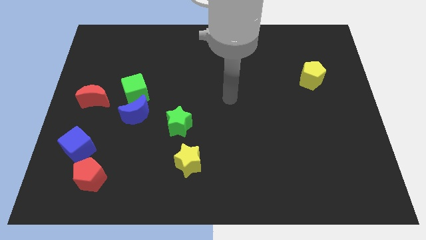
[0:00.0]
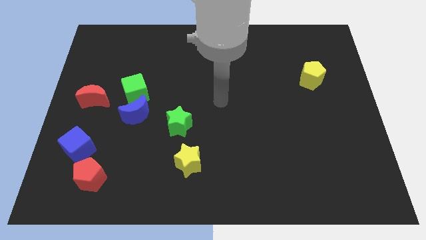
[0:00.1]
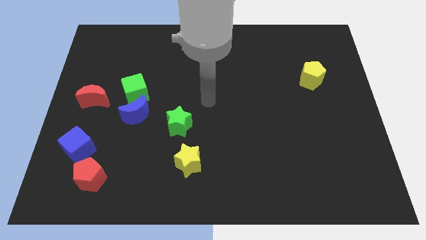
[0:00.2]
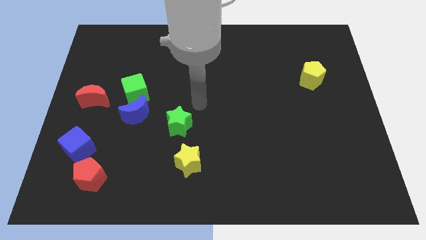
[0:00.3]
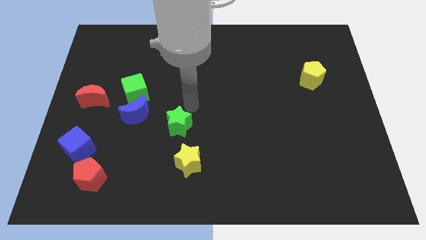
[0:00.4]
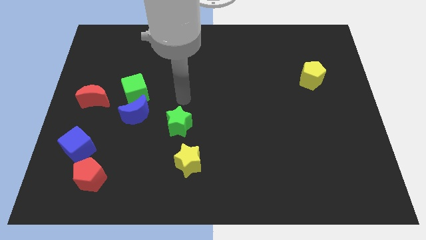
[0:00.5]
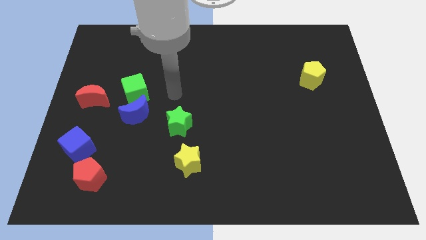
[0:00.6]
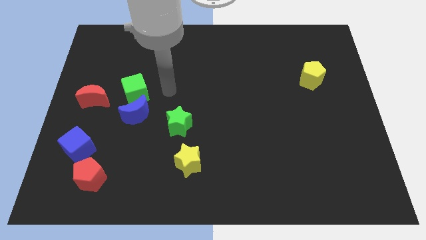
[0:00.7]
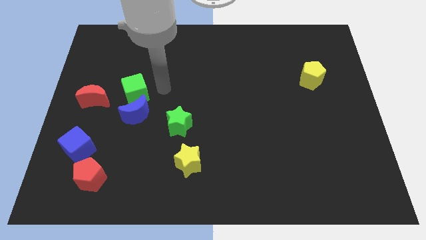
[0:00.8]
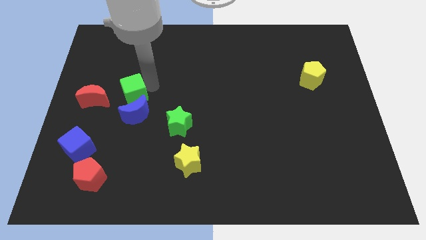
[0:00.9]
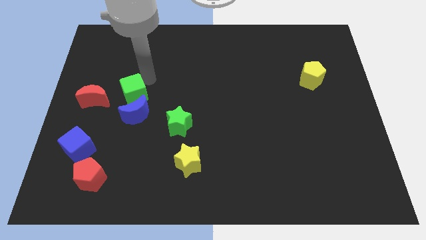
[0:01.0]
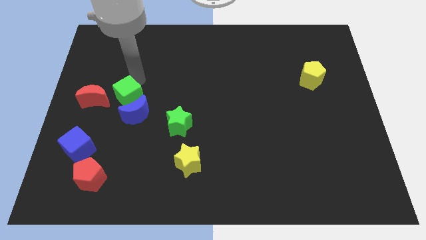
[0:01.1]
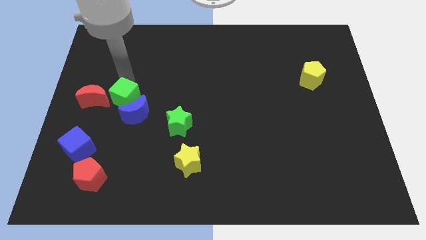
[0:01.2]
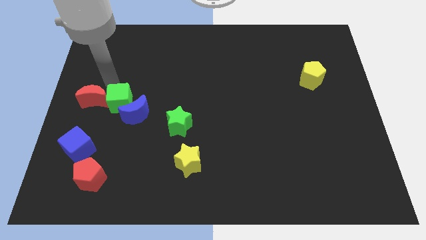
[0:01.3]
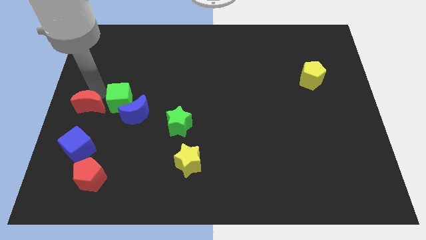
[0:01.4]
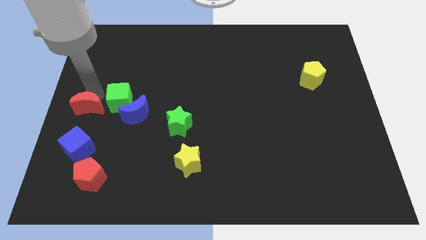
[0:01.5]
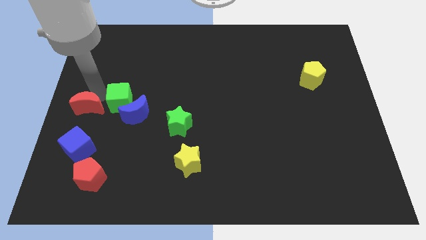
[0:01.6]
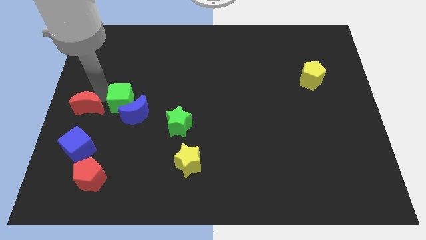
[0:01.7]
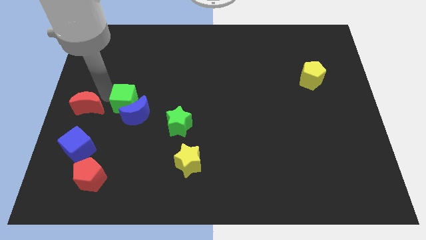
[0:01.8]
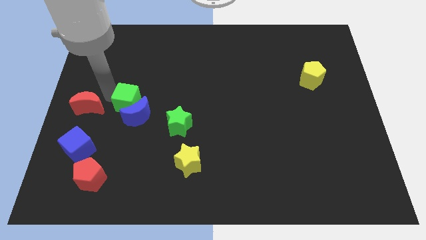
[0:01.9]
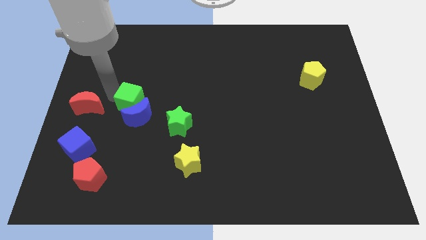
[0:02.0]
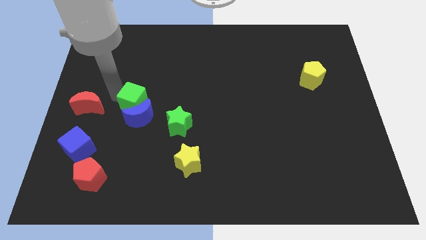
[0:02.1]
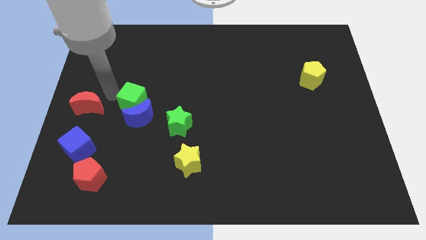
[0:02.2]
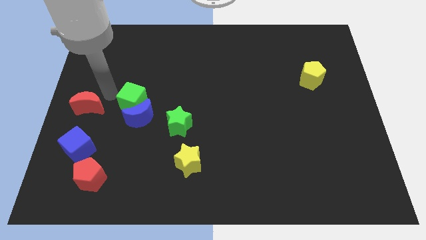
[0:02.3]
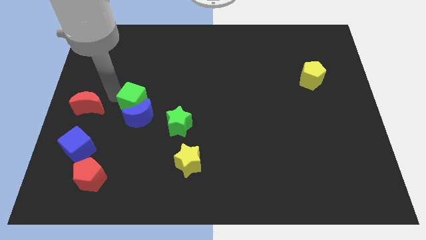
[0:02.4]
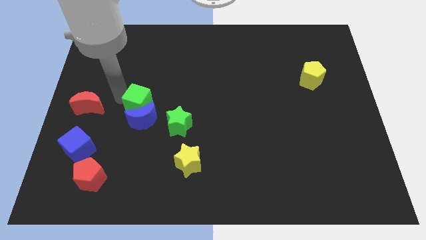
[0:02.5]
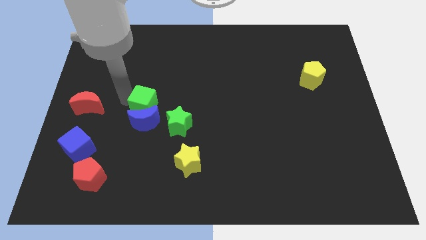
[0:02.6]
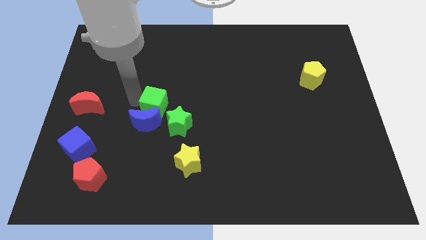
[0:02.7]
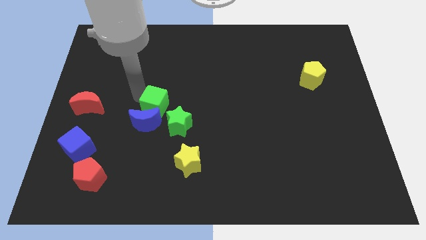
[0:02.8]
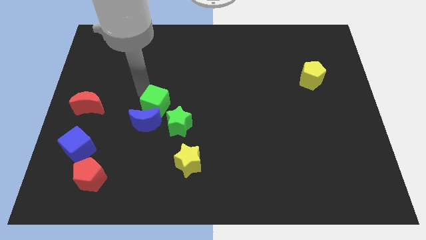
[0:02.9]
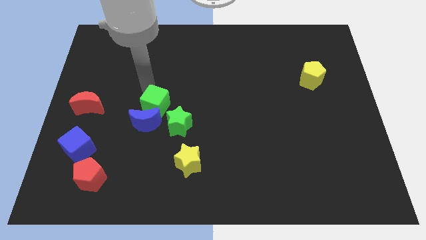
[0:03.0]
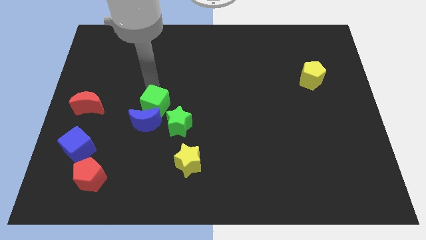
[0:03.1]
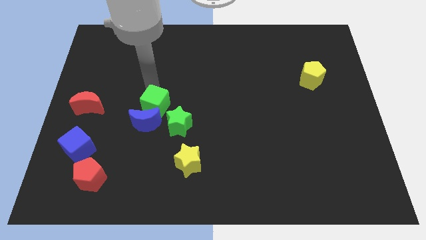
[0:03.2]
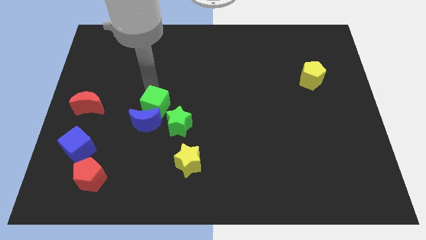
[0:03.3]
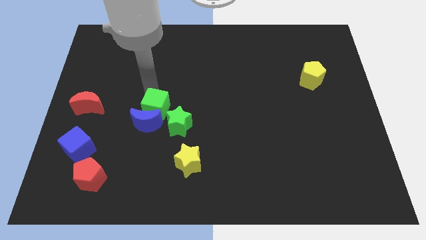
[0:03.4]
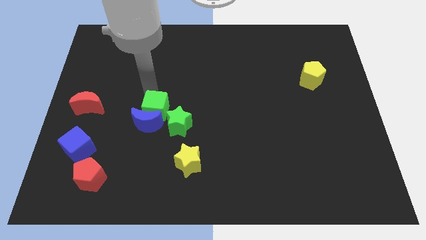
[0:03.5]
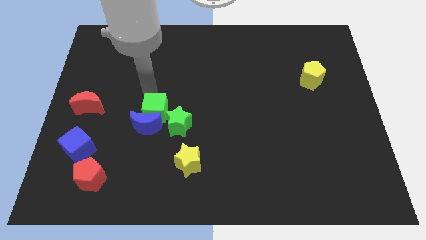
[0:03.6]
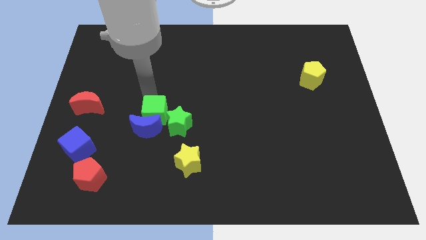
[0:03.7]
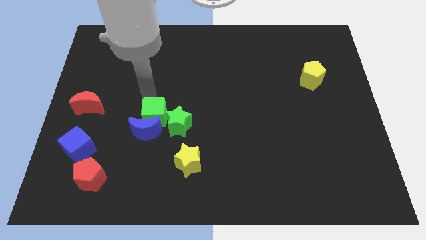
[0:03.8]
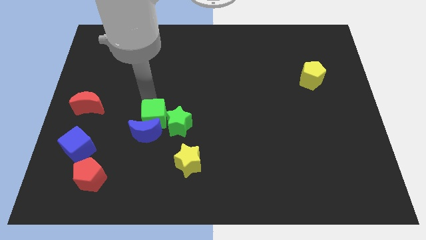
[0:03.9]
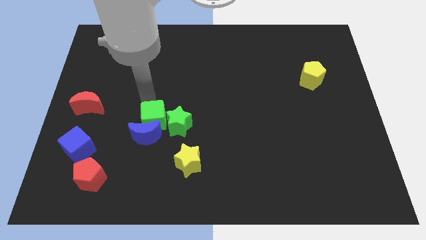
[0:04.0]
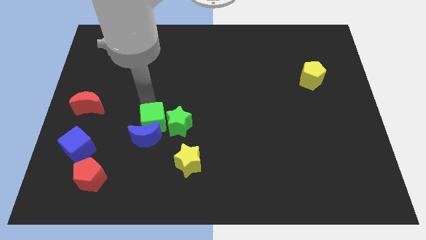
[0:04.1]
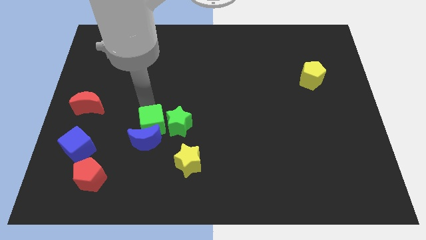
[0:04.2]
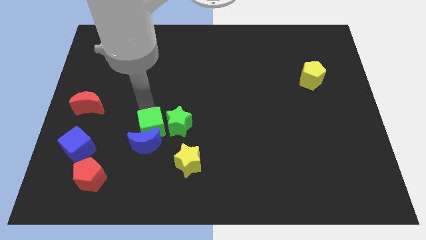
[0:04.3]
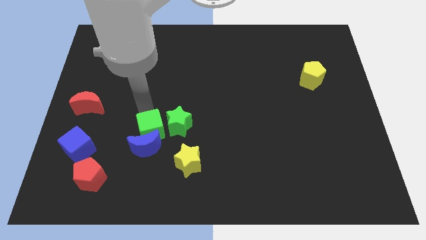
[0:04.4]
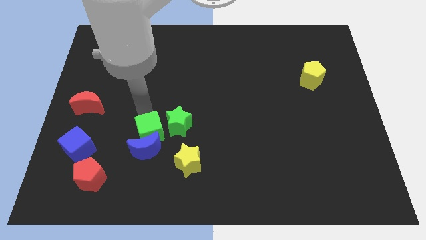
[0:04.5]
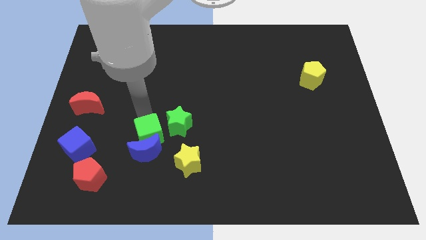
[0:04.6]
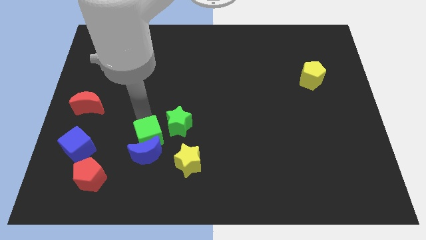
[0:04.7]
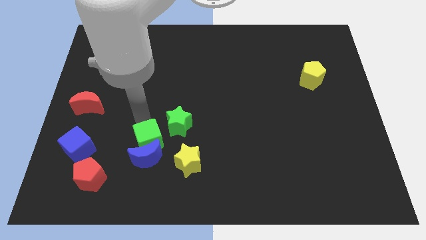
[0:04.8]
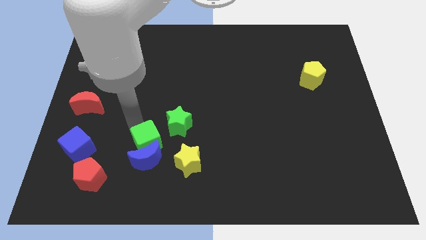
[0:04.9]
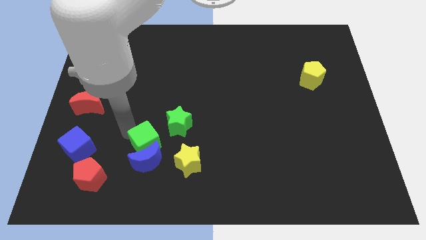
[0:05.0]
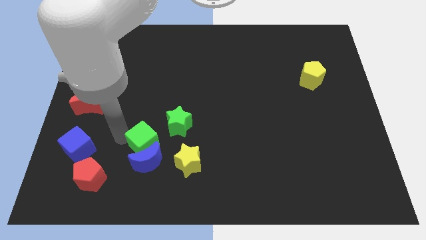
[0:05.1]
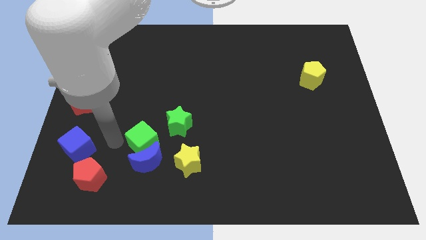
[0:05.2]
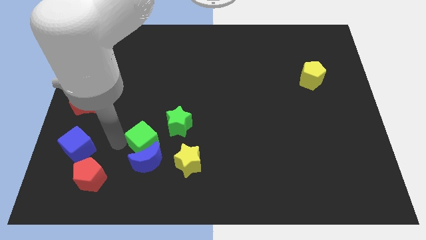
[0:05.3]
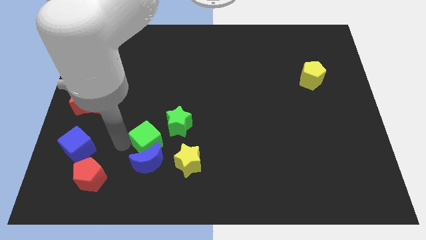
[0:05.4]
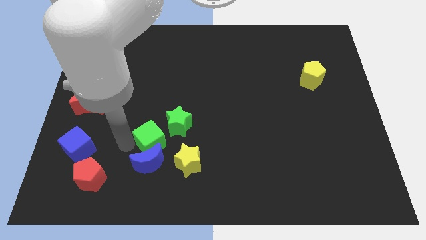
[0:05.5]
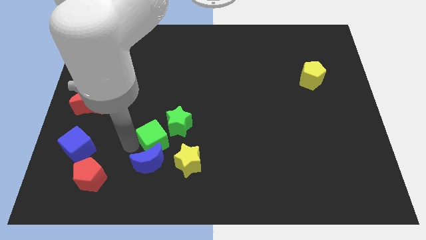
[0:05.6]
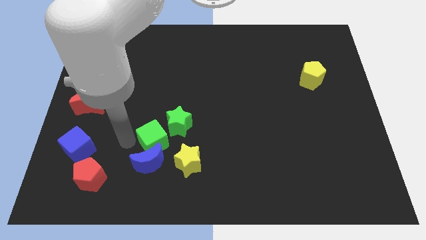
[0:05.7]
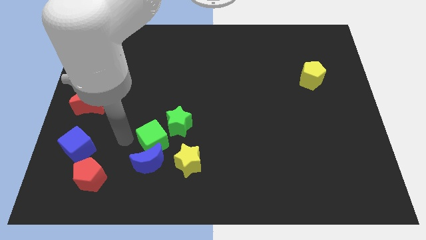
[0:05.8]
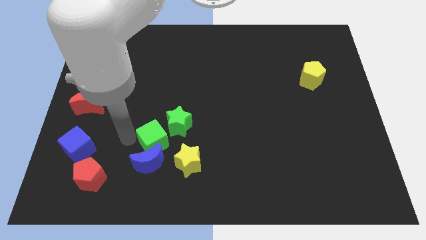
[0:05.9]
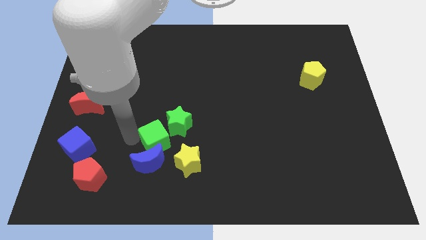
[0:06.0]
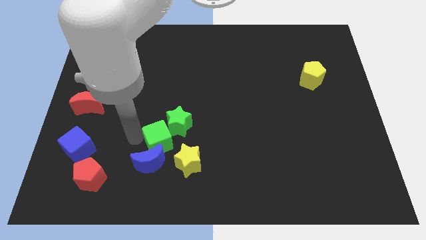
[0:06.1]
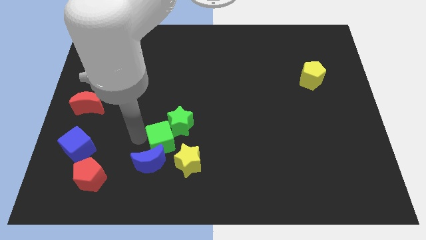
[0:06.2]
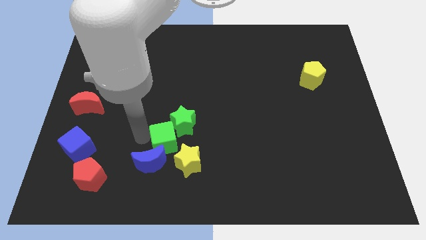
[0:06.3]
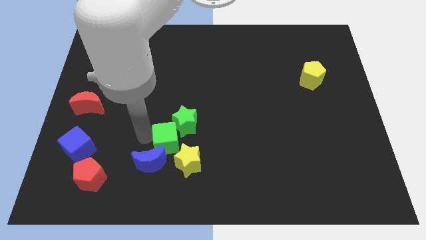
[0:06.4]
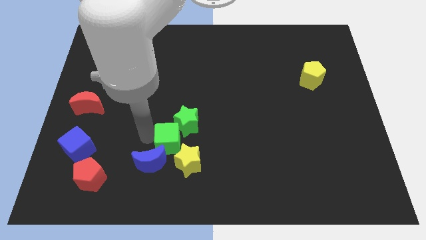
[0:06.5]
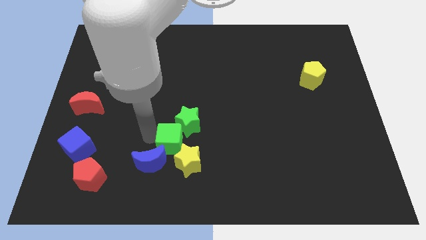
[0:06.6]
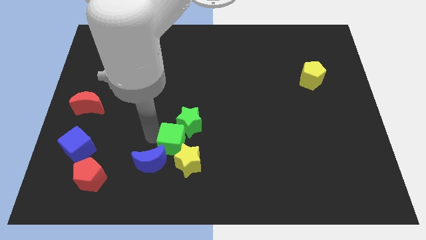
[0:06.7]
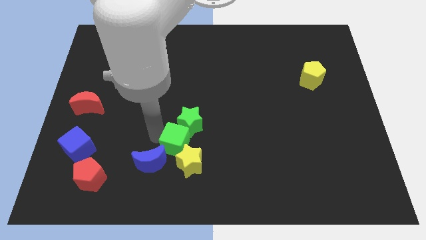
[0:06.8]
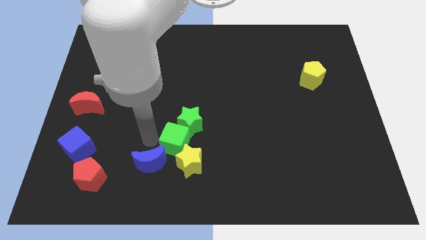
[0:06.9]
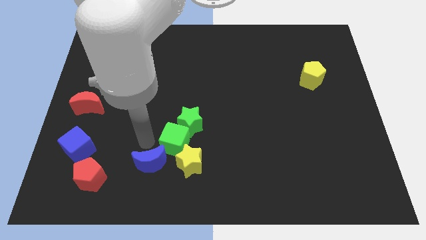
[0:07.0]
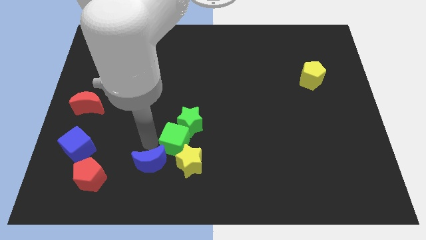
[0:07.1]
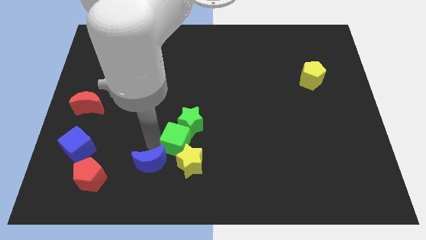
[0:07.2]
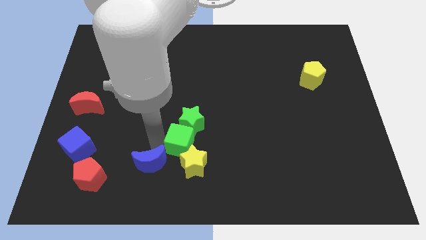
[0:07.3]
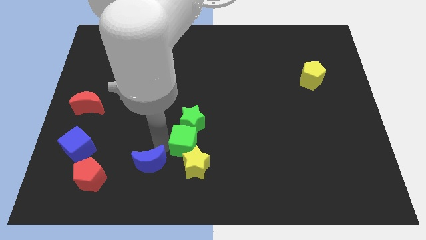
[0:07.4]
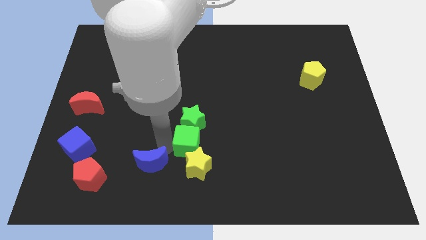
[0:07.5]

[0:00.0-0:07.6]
move the green cube diagonally down and to the right of the green star
